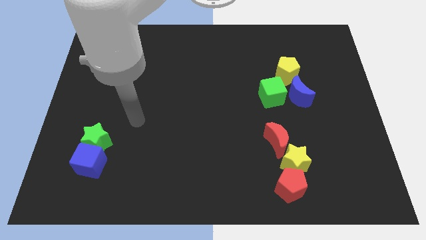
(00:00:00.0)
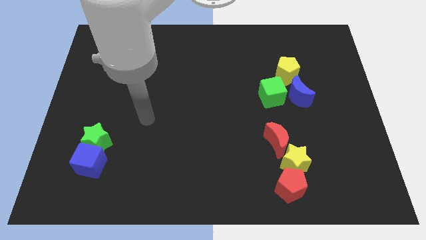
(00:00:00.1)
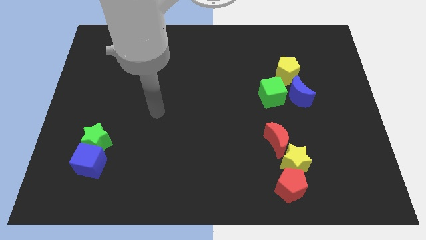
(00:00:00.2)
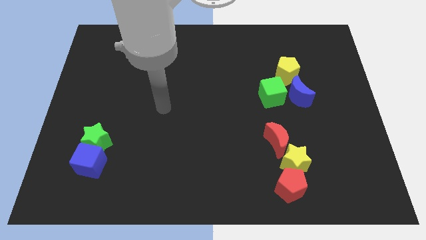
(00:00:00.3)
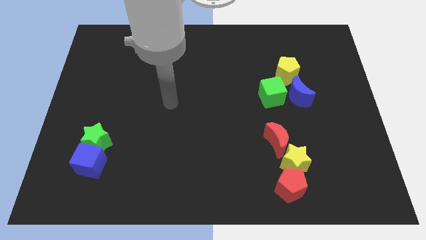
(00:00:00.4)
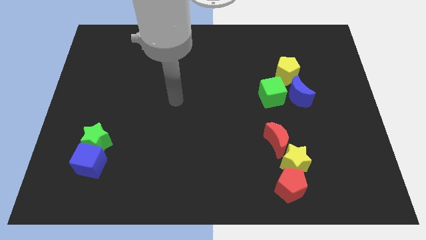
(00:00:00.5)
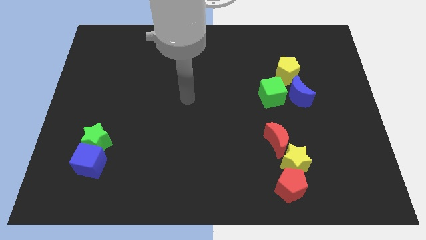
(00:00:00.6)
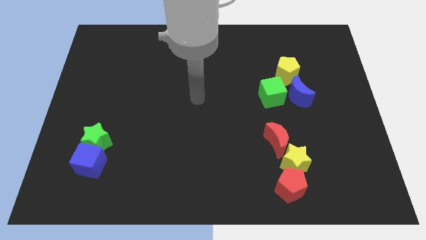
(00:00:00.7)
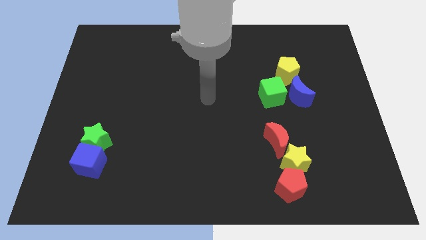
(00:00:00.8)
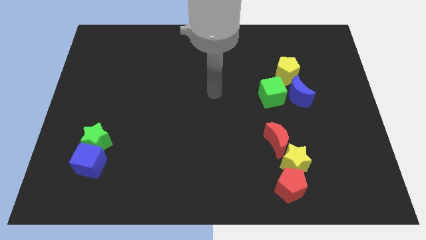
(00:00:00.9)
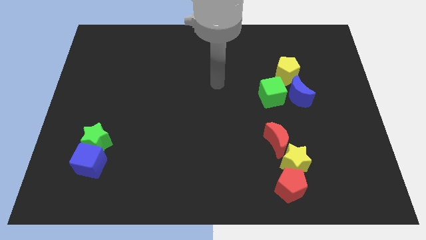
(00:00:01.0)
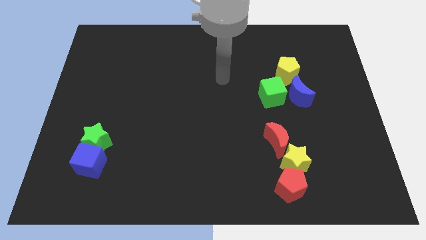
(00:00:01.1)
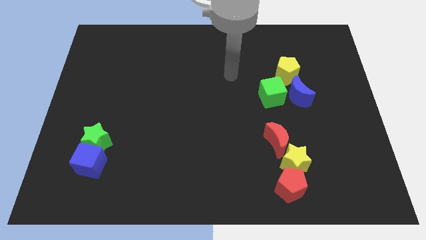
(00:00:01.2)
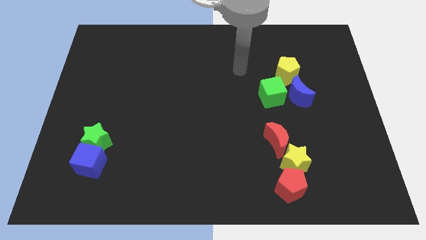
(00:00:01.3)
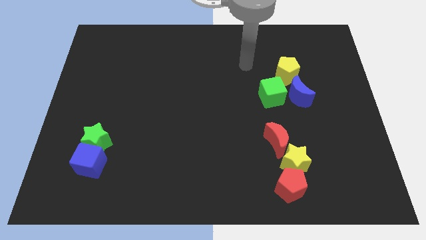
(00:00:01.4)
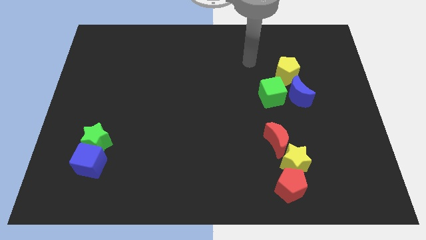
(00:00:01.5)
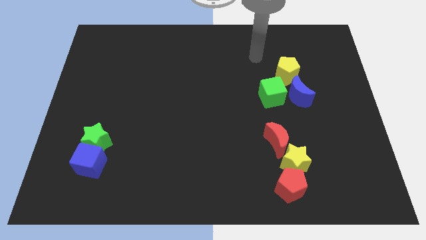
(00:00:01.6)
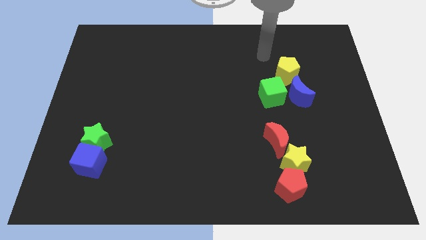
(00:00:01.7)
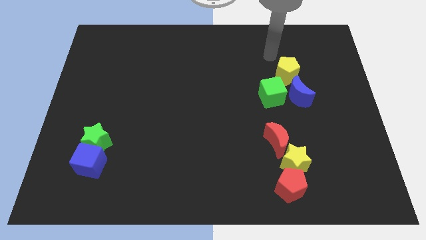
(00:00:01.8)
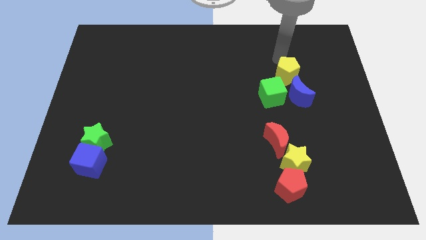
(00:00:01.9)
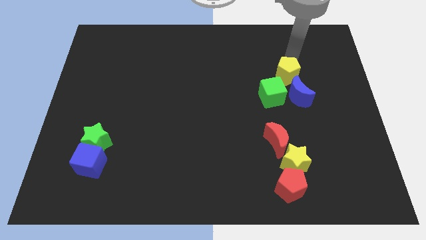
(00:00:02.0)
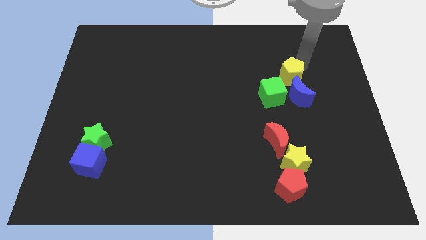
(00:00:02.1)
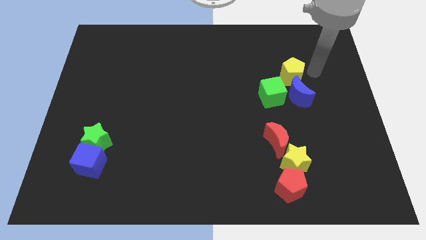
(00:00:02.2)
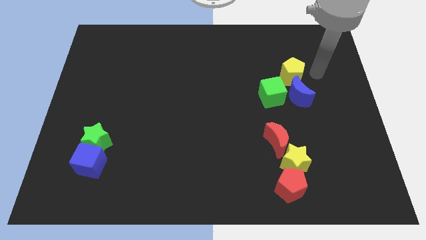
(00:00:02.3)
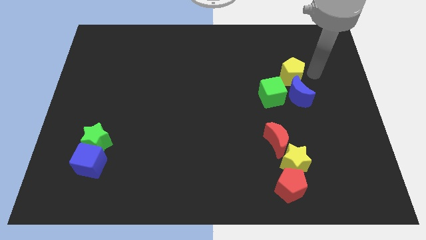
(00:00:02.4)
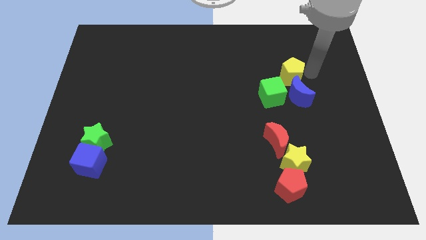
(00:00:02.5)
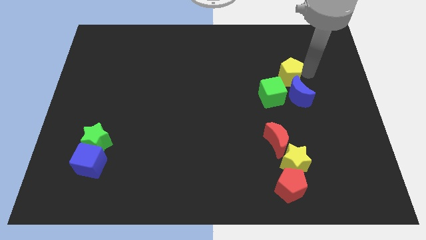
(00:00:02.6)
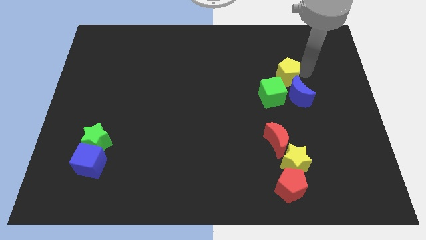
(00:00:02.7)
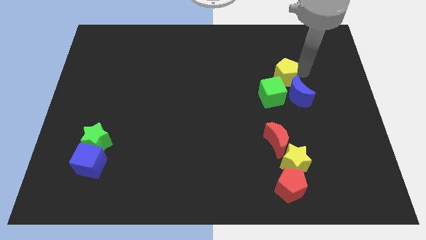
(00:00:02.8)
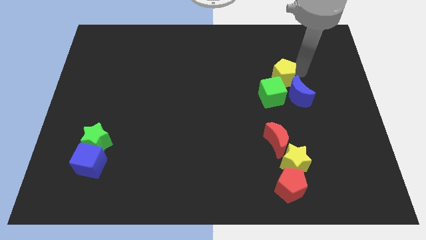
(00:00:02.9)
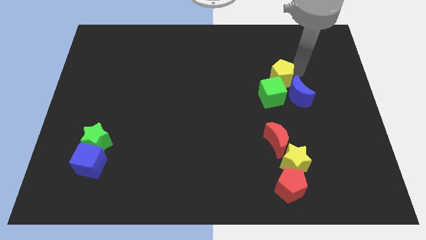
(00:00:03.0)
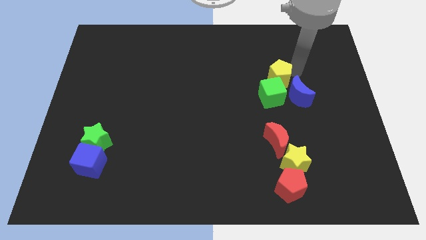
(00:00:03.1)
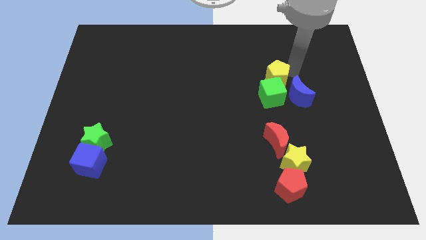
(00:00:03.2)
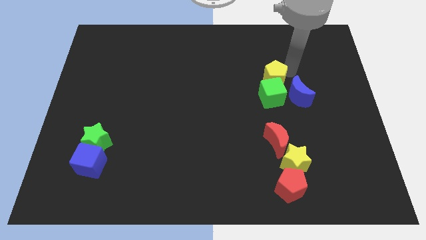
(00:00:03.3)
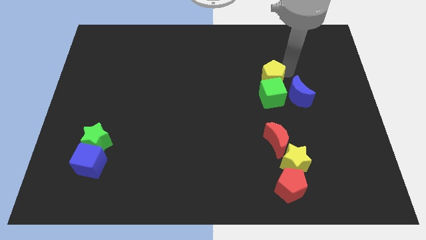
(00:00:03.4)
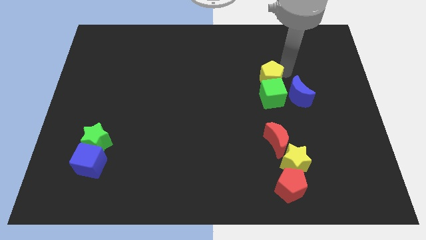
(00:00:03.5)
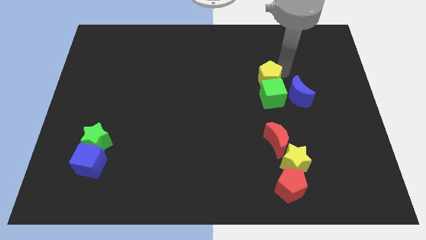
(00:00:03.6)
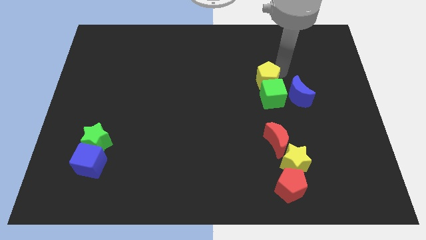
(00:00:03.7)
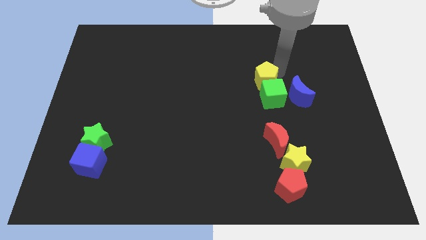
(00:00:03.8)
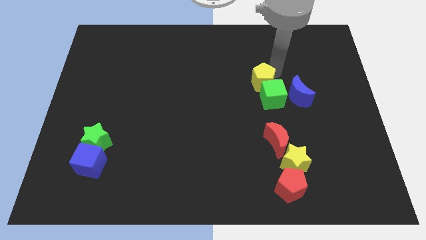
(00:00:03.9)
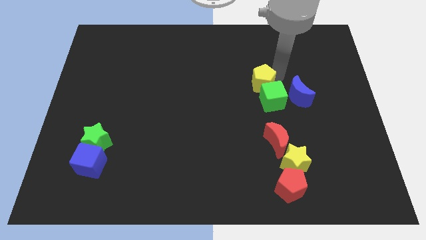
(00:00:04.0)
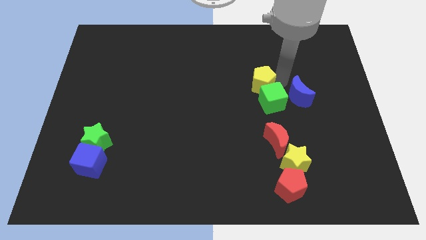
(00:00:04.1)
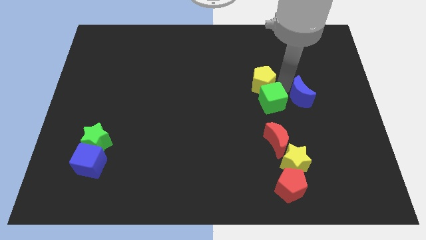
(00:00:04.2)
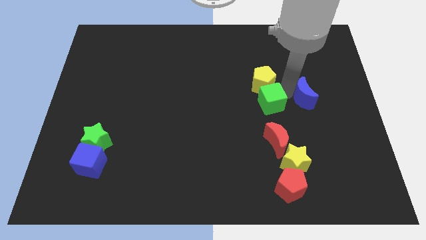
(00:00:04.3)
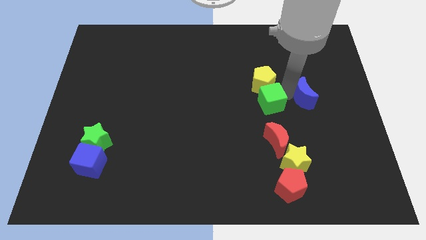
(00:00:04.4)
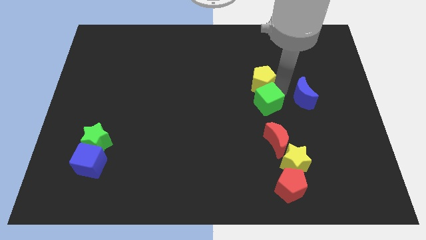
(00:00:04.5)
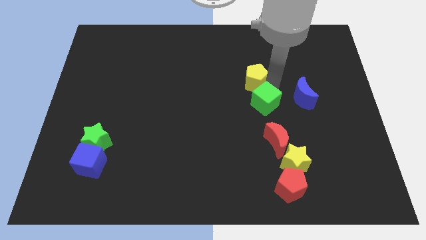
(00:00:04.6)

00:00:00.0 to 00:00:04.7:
push the yellow pentagon somewhat to the left

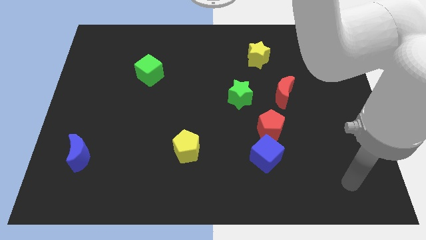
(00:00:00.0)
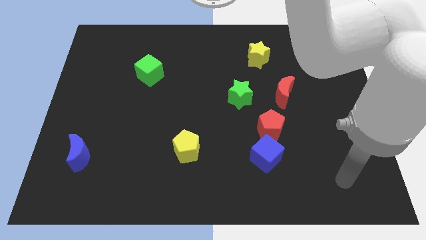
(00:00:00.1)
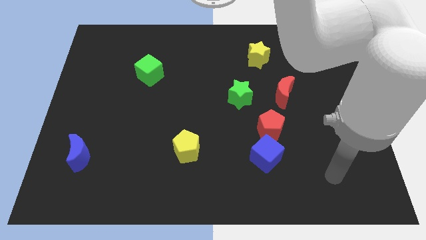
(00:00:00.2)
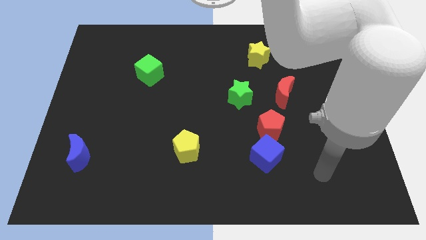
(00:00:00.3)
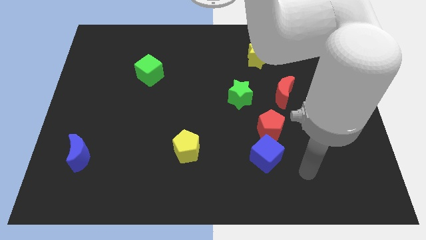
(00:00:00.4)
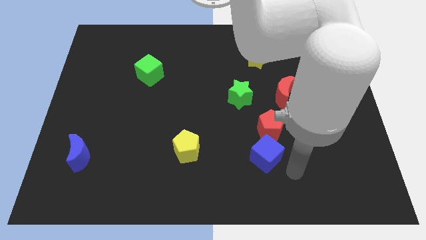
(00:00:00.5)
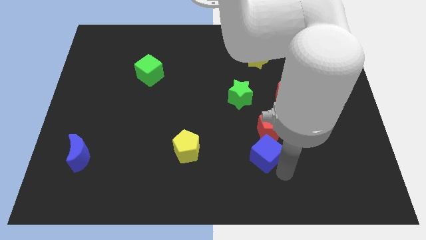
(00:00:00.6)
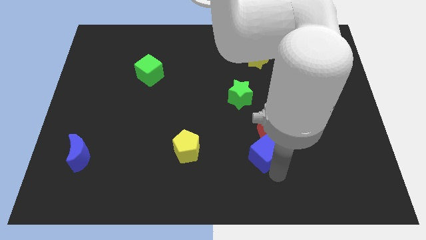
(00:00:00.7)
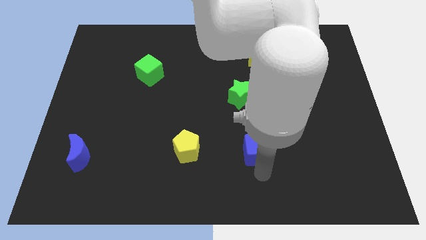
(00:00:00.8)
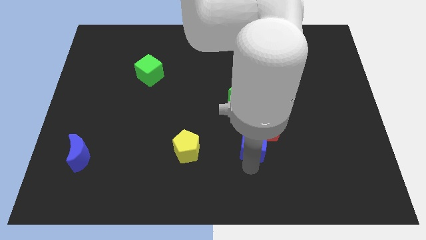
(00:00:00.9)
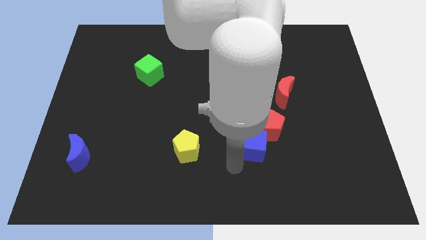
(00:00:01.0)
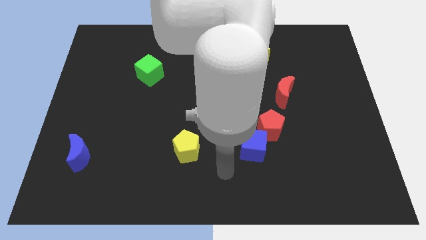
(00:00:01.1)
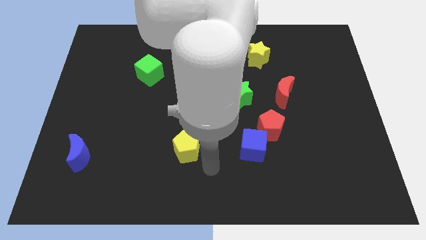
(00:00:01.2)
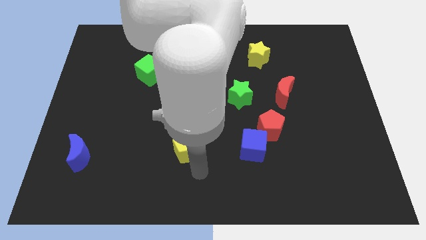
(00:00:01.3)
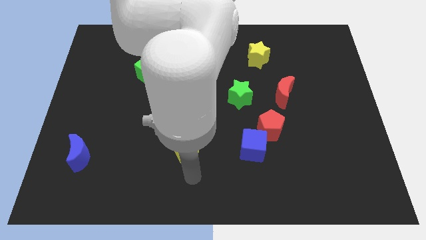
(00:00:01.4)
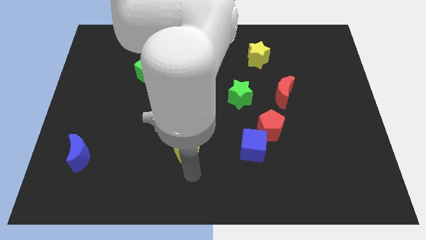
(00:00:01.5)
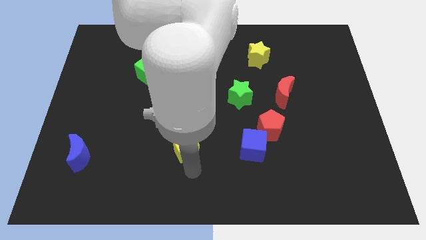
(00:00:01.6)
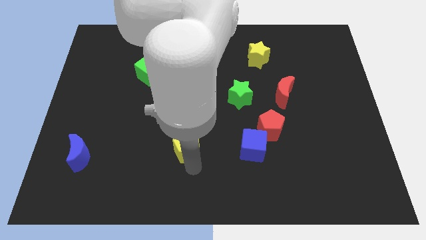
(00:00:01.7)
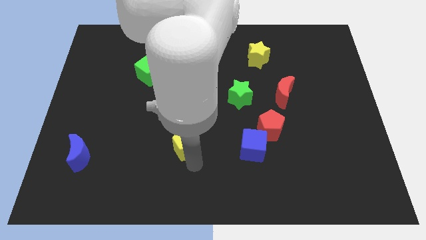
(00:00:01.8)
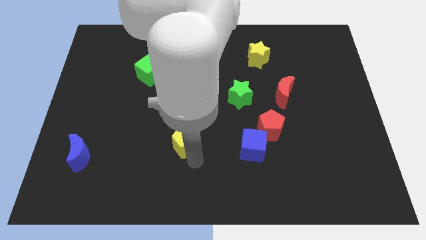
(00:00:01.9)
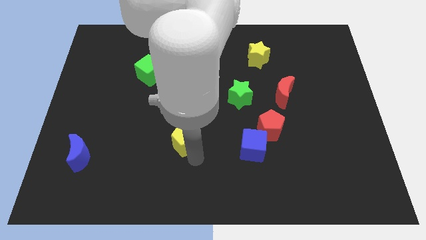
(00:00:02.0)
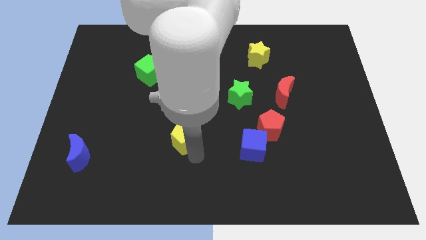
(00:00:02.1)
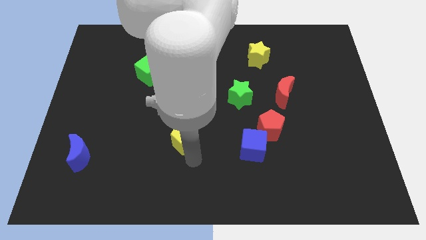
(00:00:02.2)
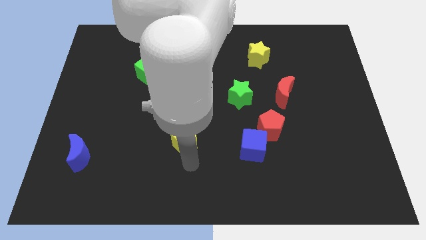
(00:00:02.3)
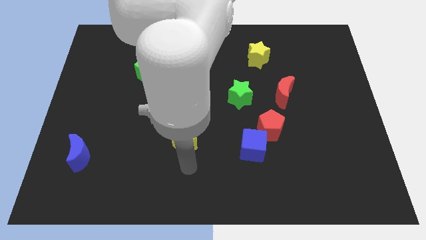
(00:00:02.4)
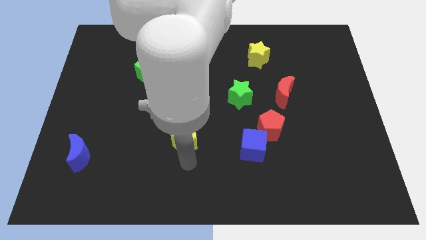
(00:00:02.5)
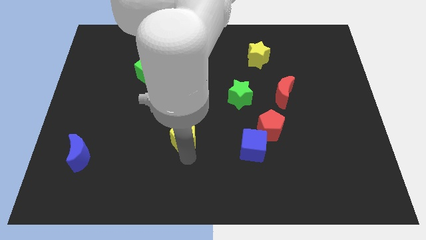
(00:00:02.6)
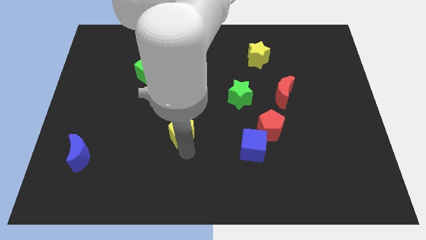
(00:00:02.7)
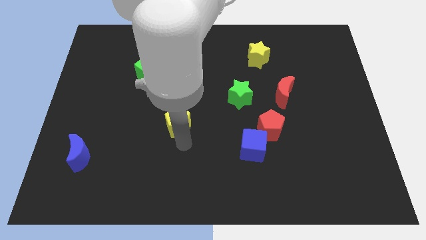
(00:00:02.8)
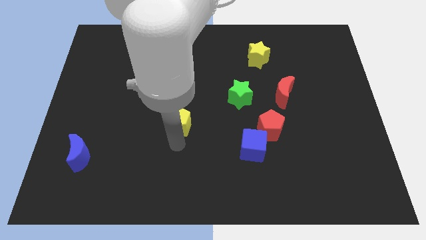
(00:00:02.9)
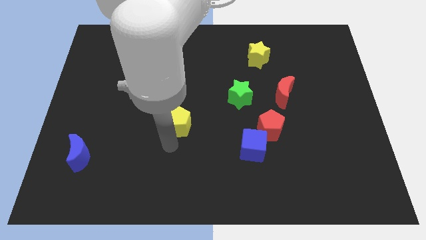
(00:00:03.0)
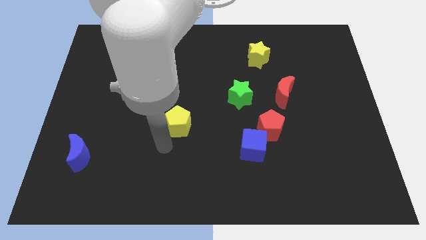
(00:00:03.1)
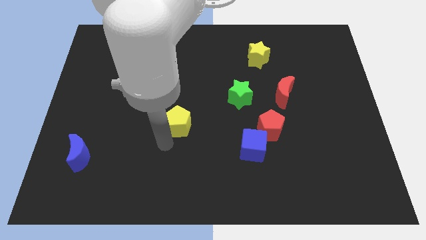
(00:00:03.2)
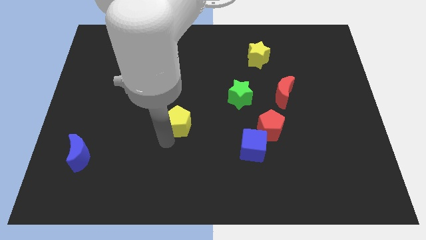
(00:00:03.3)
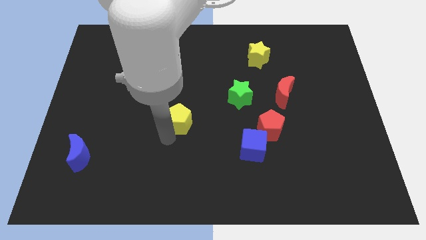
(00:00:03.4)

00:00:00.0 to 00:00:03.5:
slide the yellow pentagon a little upwards
